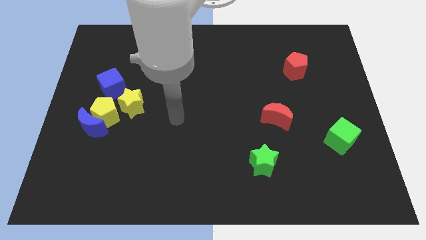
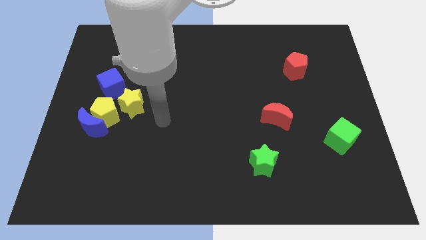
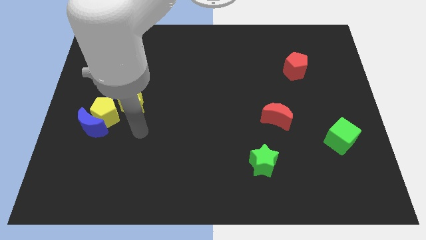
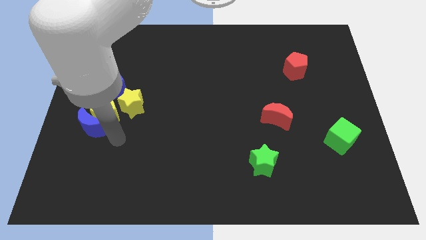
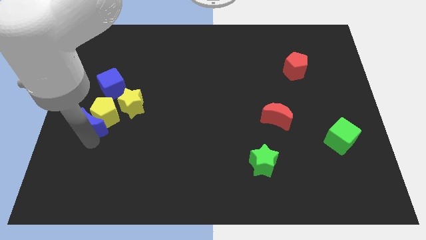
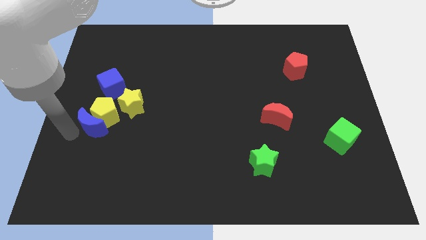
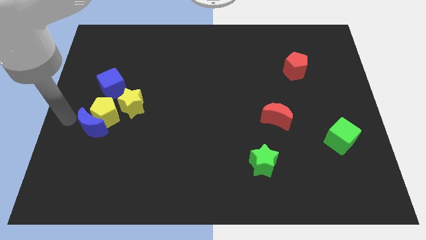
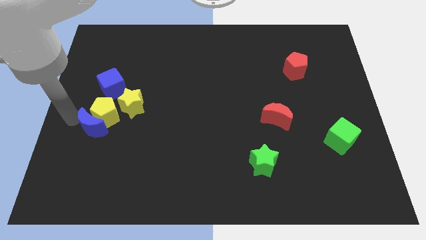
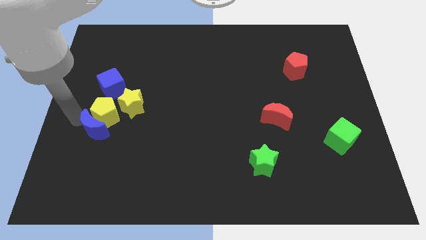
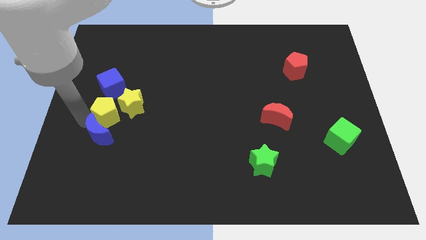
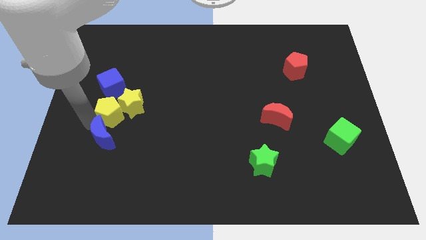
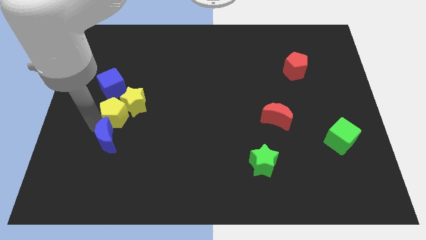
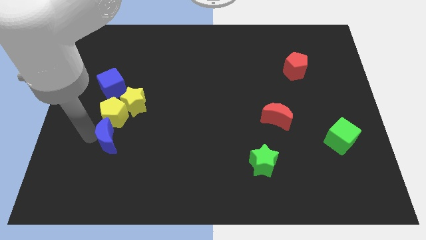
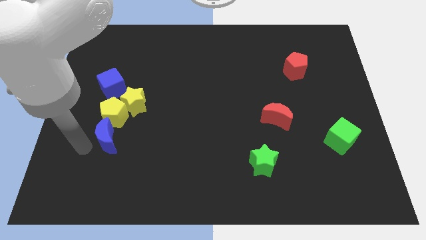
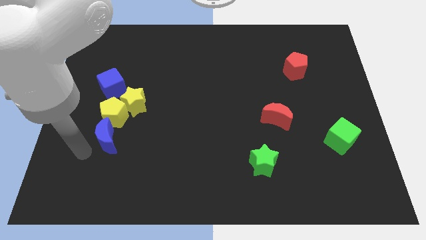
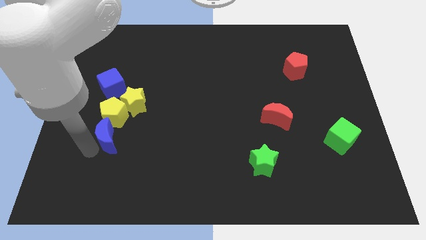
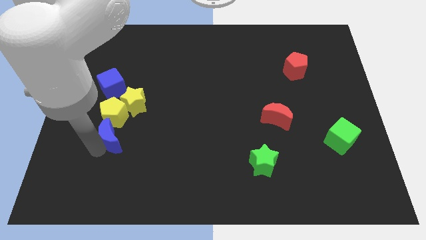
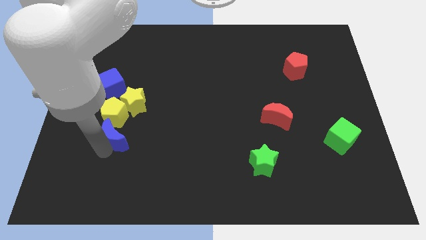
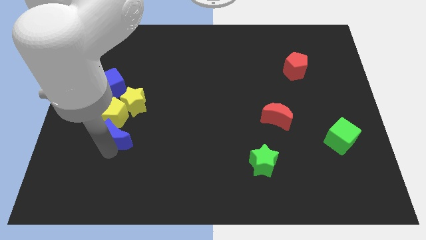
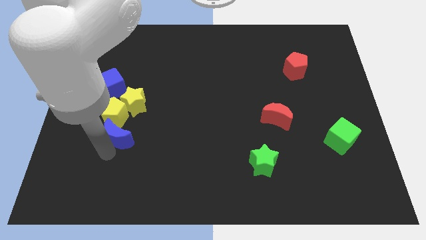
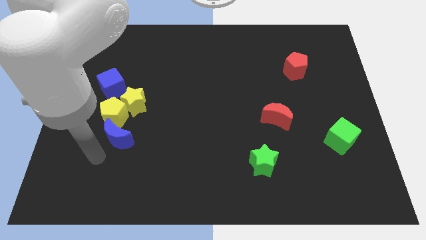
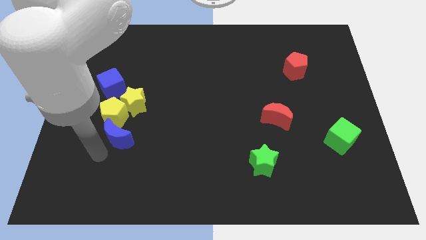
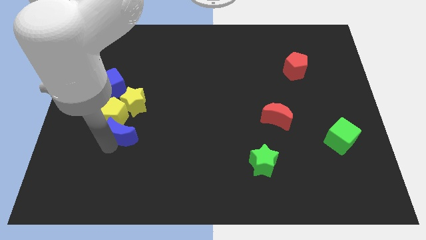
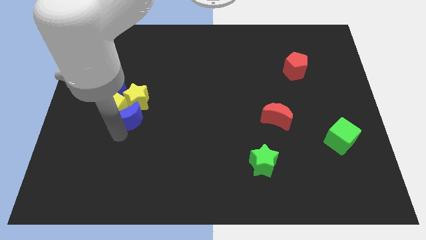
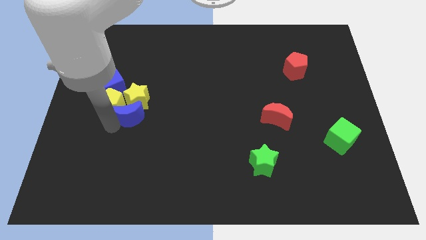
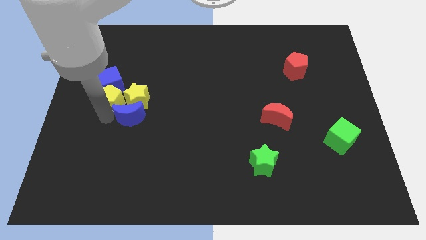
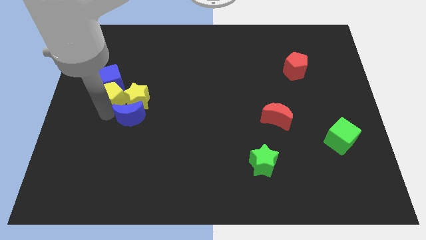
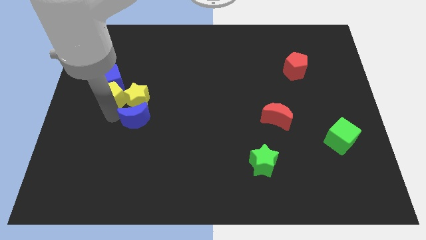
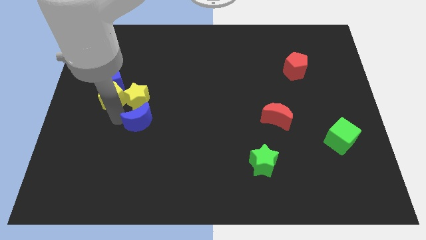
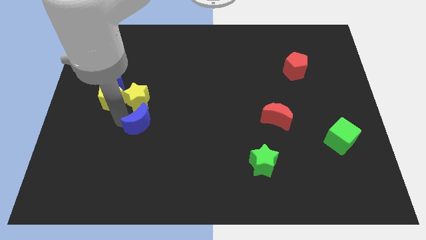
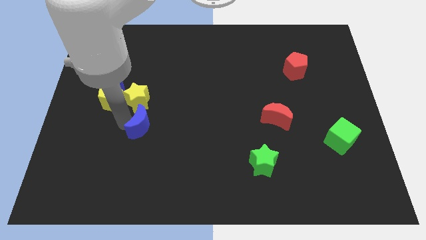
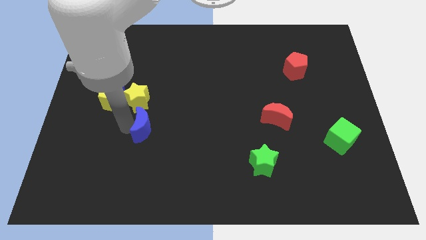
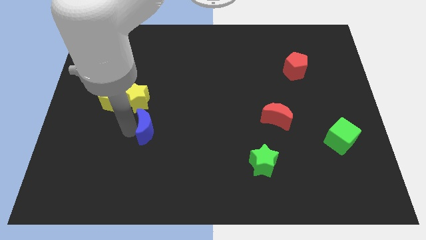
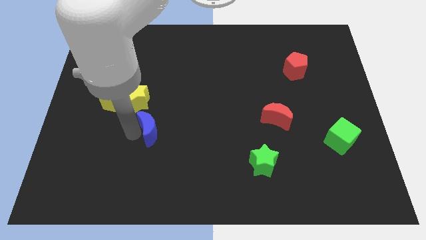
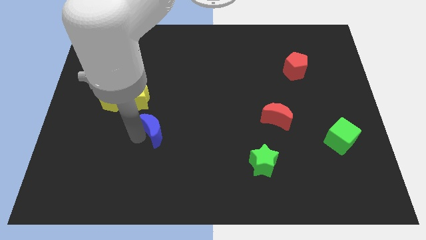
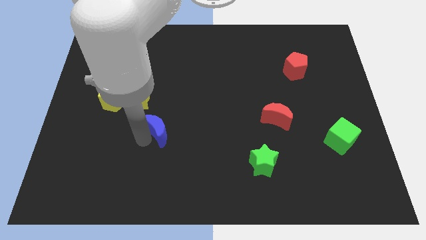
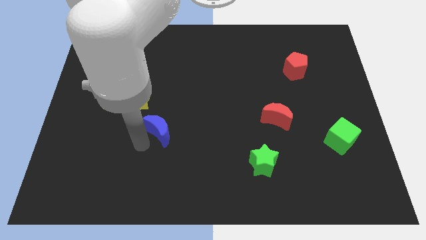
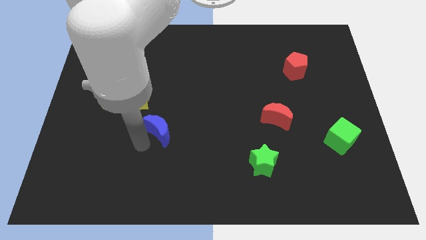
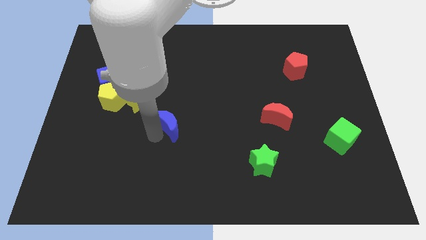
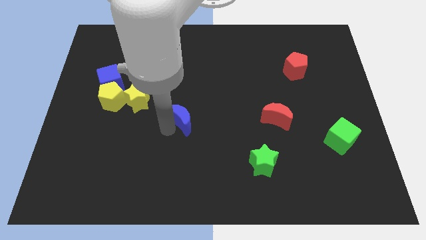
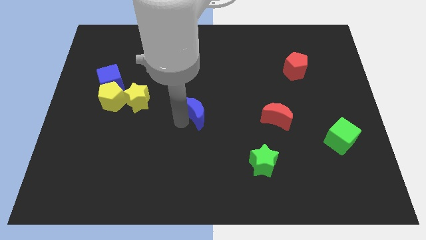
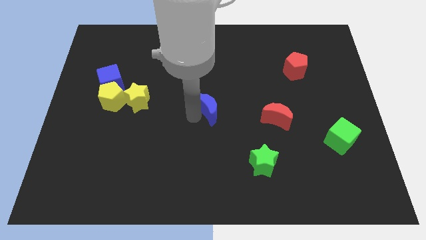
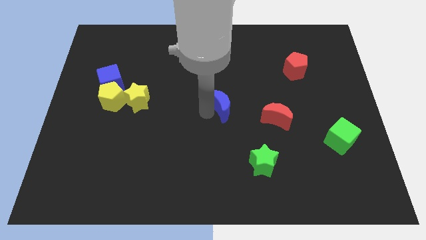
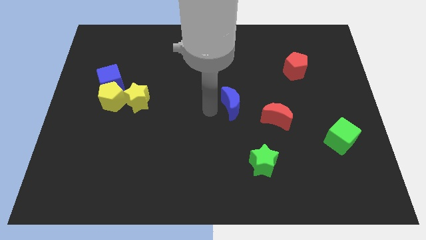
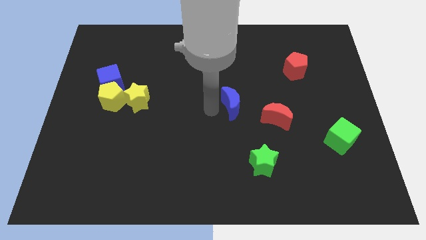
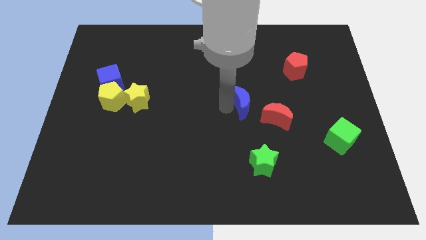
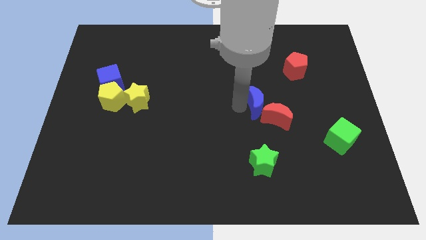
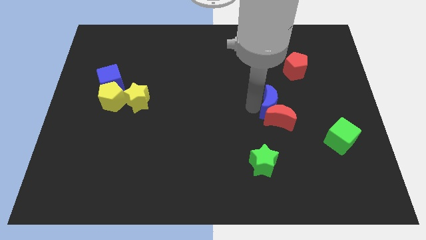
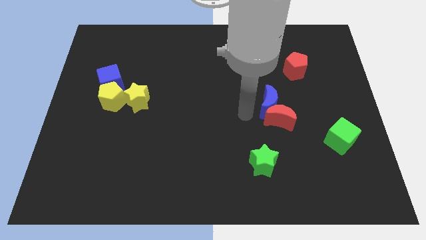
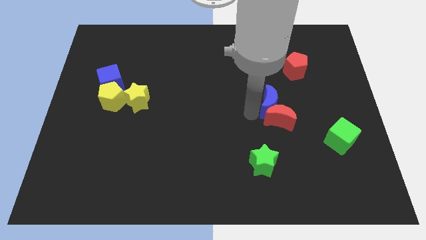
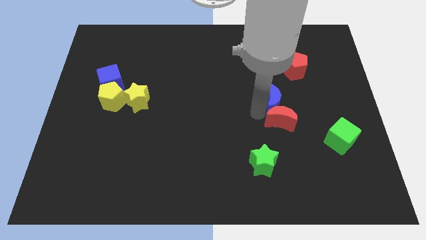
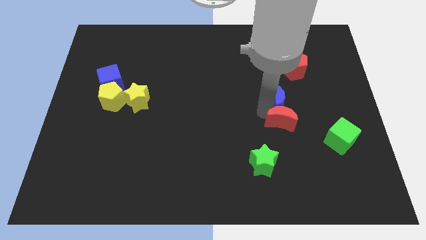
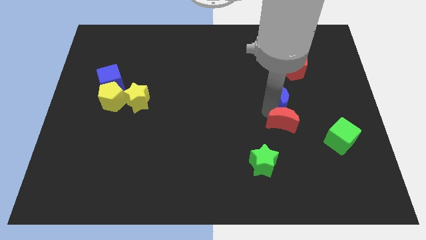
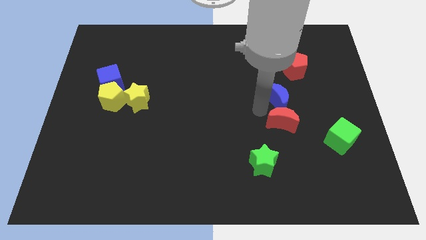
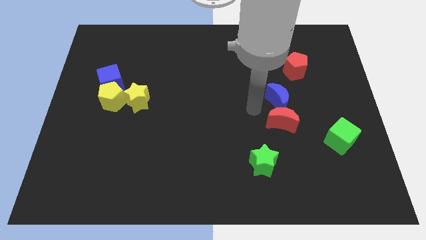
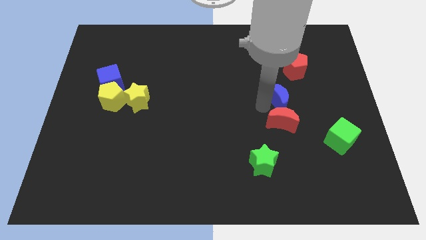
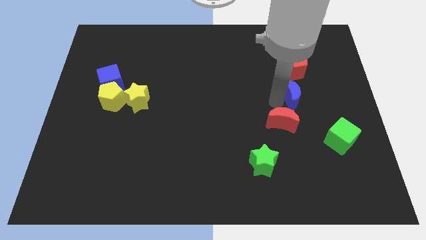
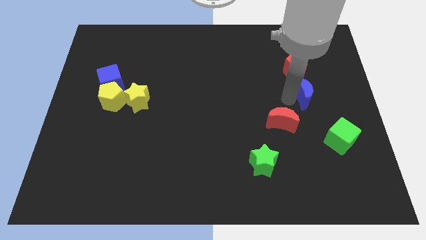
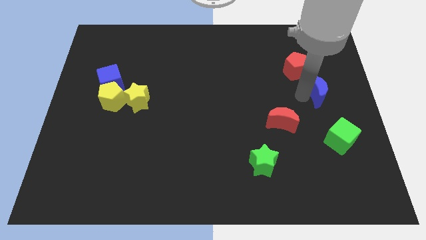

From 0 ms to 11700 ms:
push the blue moon to the right side
